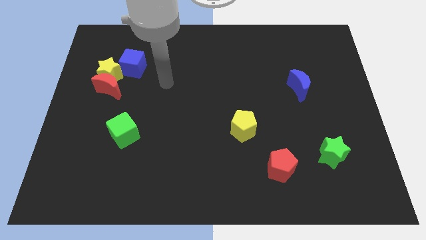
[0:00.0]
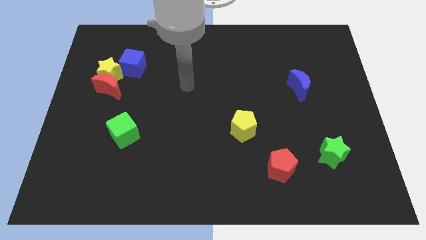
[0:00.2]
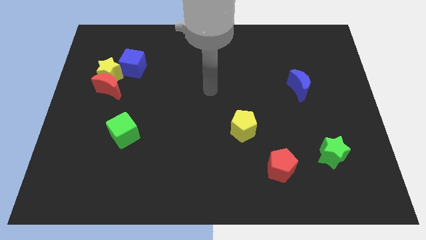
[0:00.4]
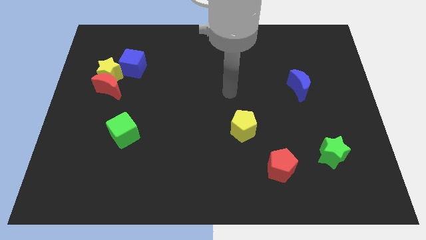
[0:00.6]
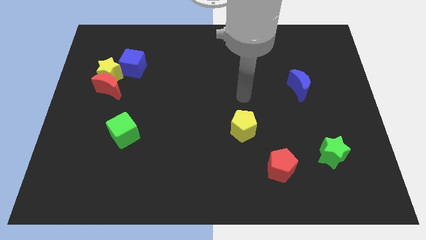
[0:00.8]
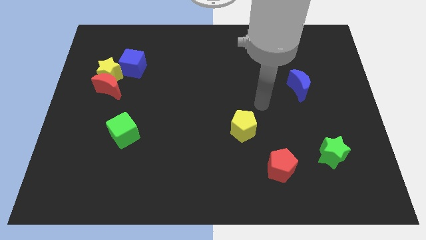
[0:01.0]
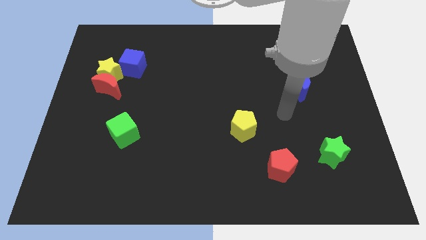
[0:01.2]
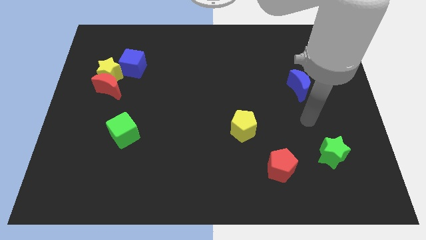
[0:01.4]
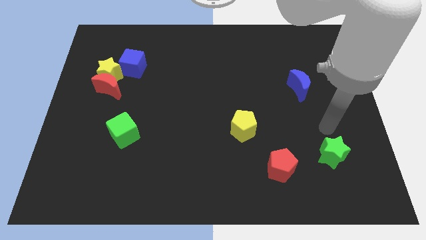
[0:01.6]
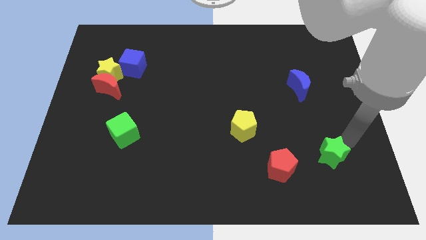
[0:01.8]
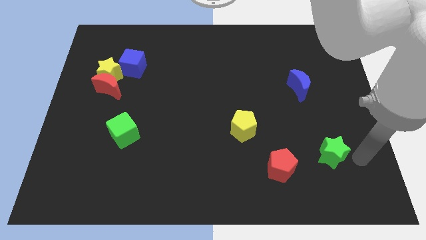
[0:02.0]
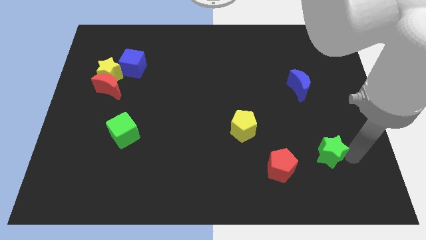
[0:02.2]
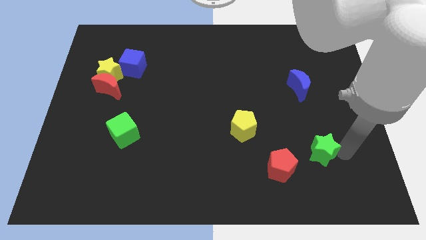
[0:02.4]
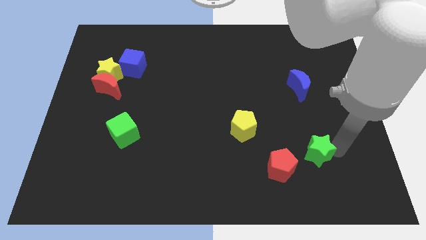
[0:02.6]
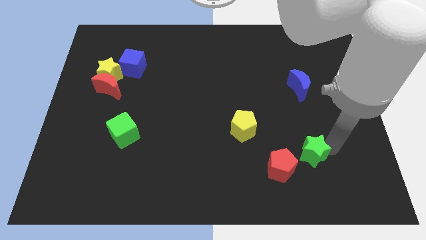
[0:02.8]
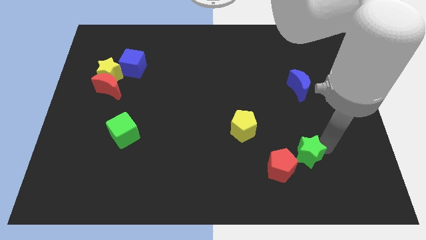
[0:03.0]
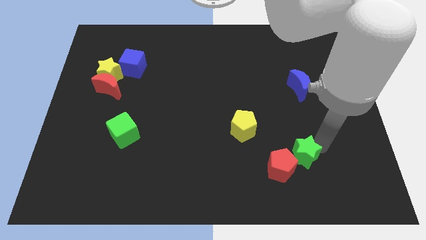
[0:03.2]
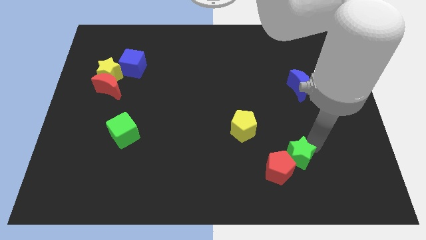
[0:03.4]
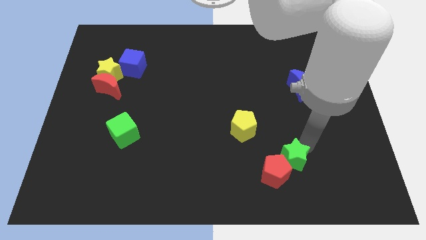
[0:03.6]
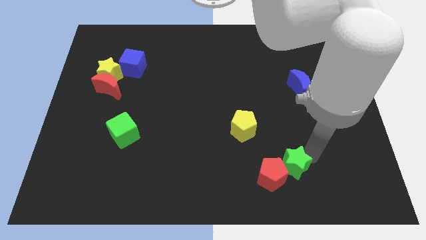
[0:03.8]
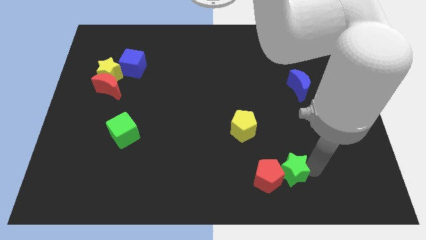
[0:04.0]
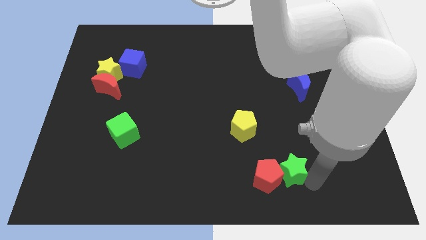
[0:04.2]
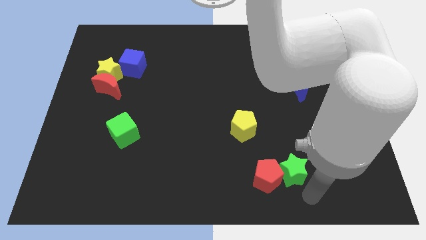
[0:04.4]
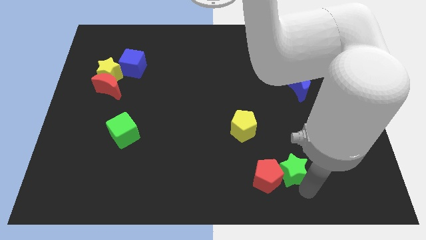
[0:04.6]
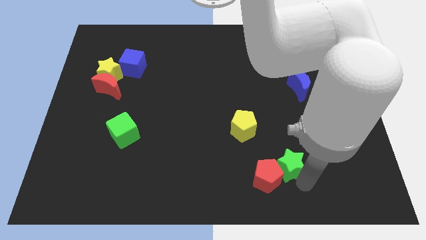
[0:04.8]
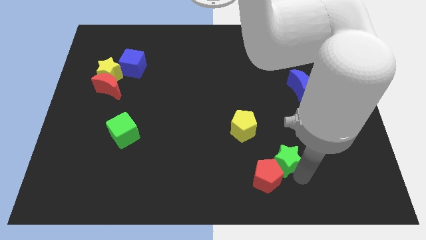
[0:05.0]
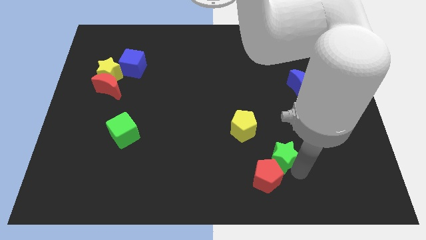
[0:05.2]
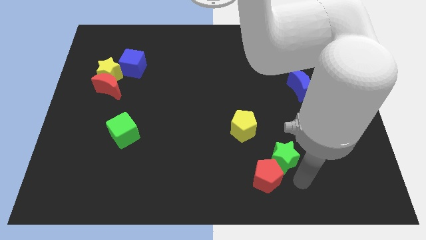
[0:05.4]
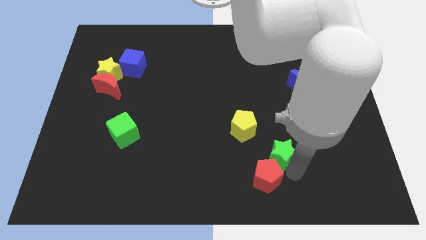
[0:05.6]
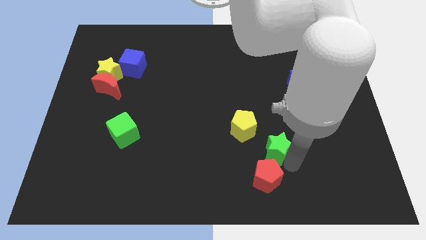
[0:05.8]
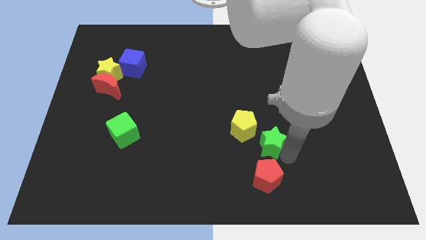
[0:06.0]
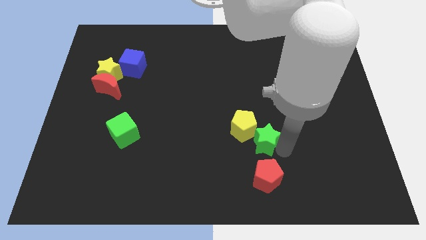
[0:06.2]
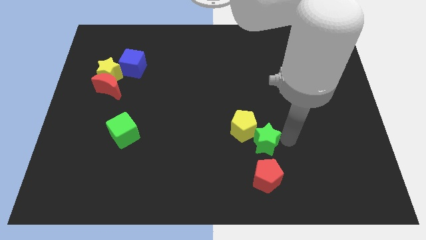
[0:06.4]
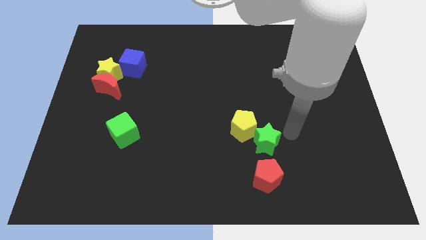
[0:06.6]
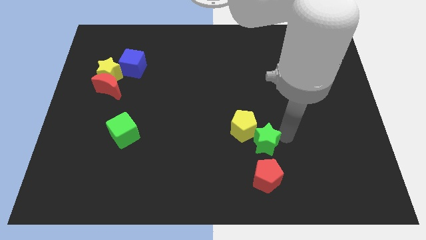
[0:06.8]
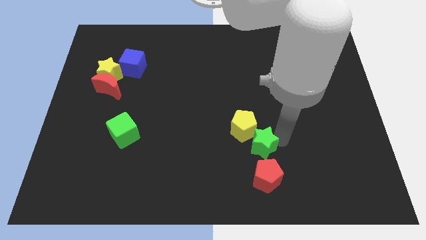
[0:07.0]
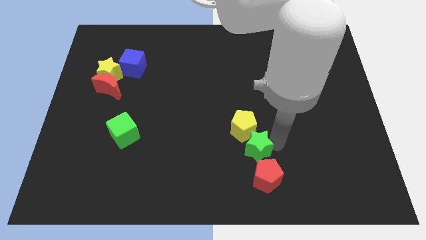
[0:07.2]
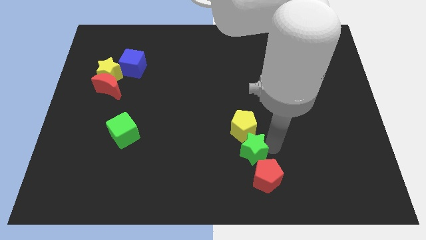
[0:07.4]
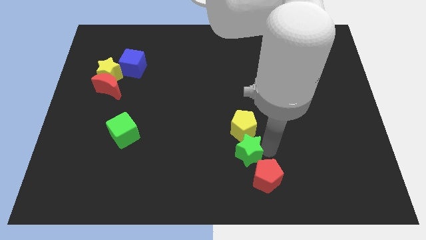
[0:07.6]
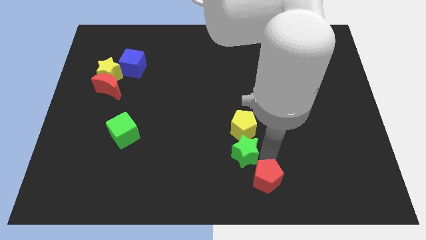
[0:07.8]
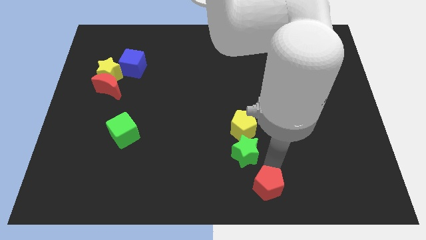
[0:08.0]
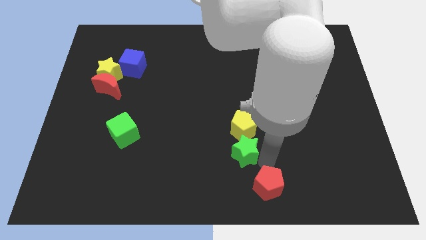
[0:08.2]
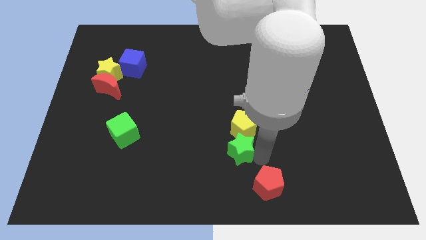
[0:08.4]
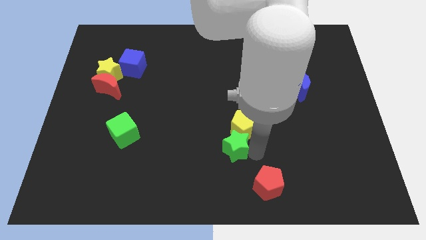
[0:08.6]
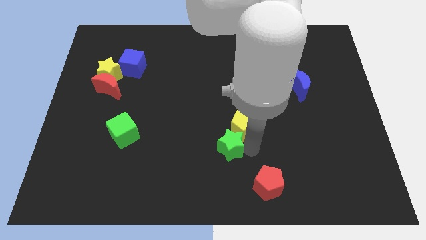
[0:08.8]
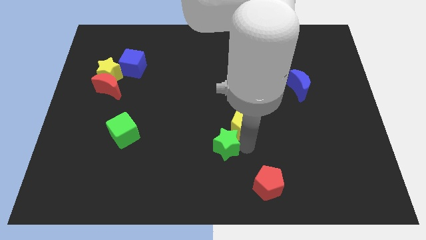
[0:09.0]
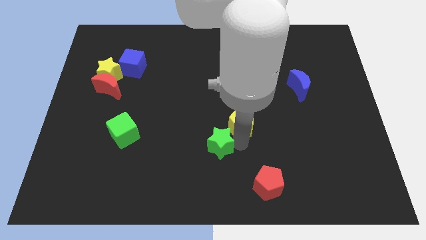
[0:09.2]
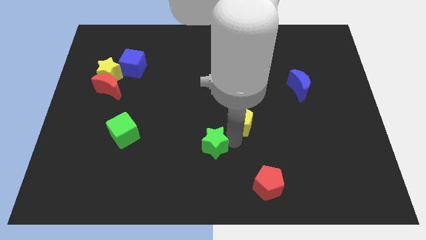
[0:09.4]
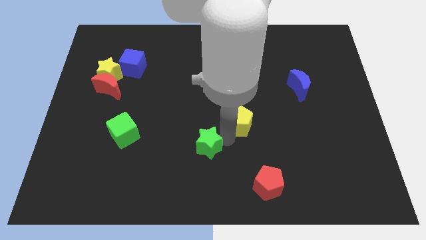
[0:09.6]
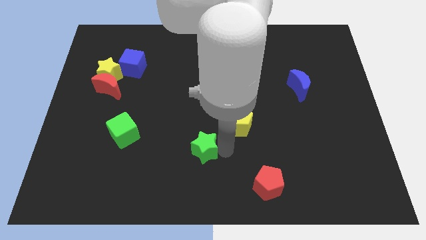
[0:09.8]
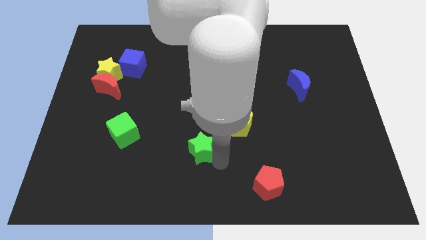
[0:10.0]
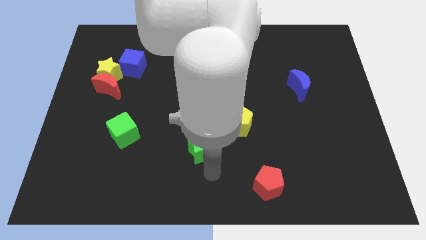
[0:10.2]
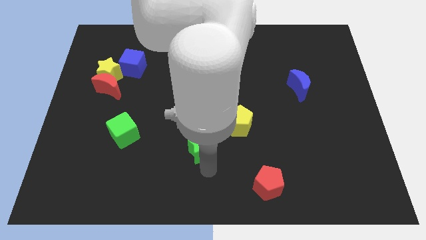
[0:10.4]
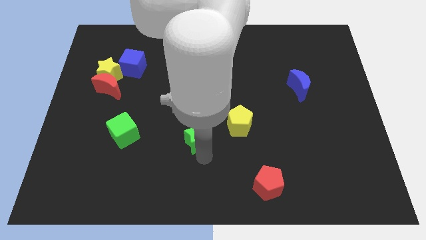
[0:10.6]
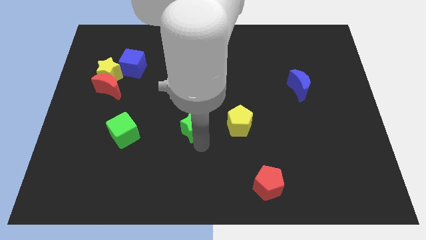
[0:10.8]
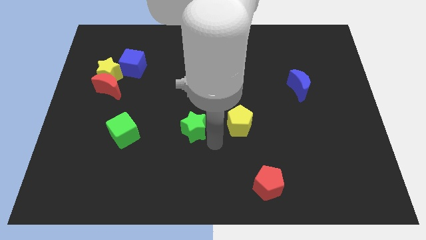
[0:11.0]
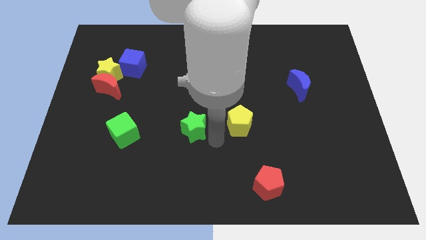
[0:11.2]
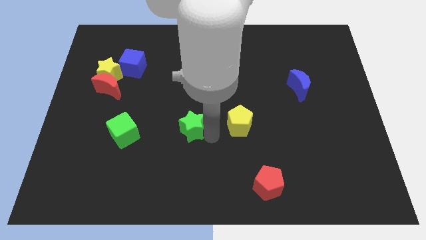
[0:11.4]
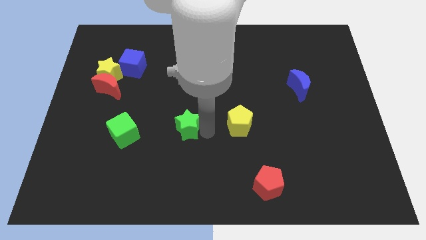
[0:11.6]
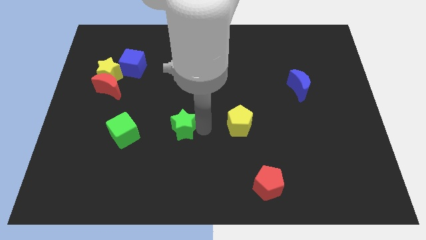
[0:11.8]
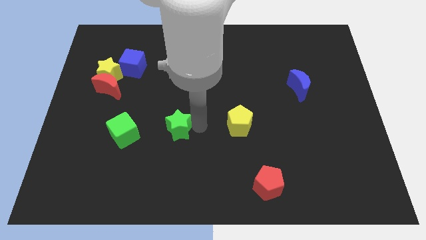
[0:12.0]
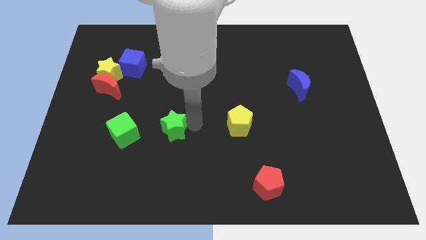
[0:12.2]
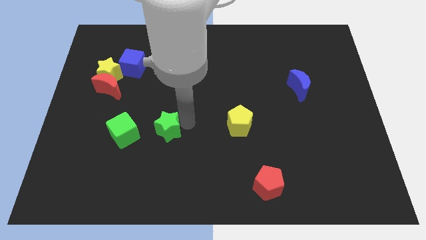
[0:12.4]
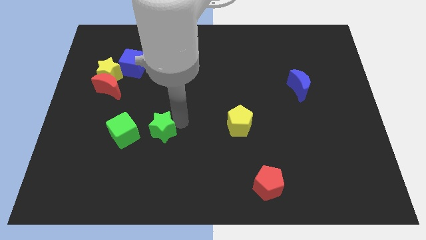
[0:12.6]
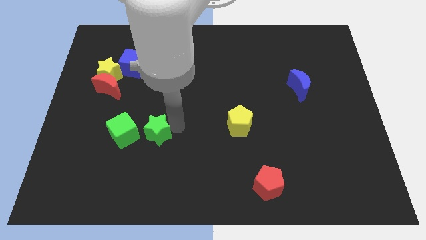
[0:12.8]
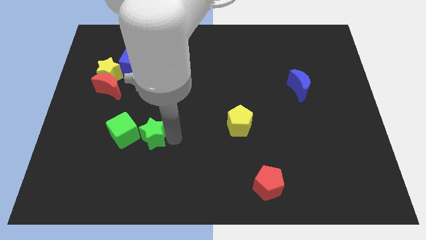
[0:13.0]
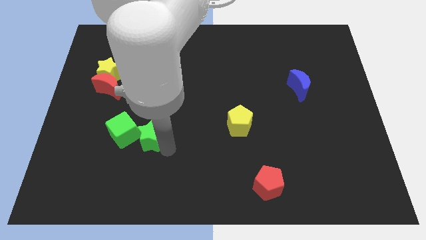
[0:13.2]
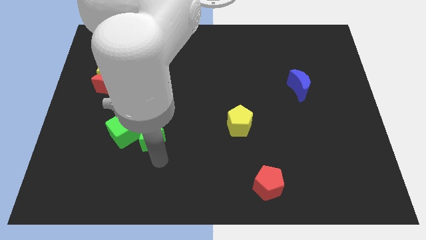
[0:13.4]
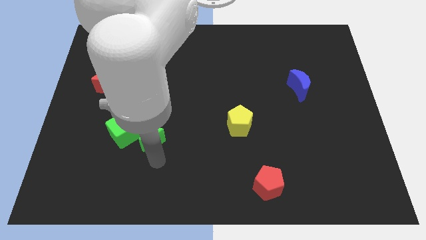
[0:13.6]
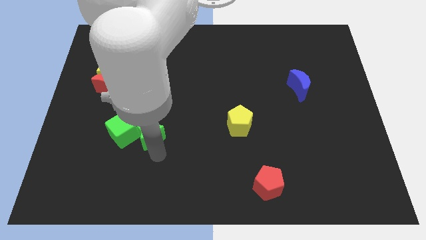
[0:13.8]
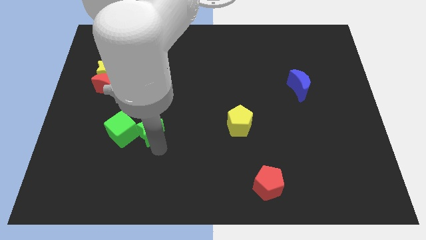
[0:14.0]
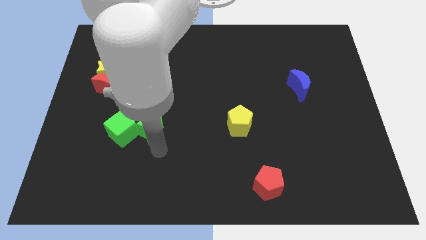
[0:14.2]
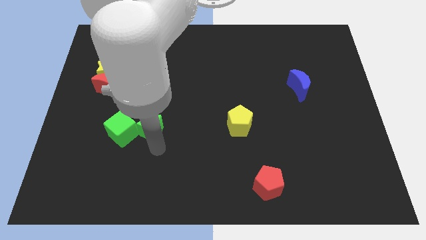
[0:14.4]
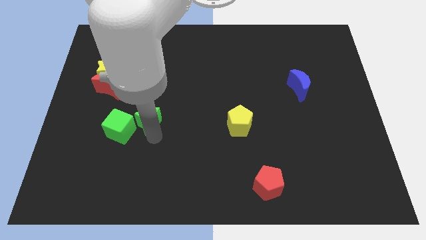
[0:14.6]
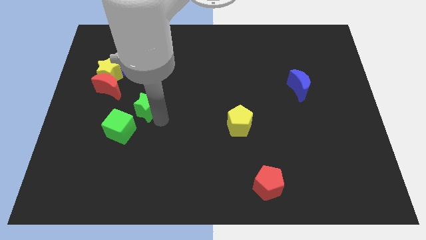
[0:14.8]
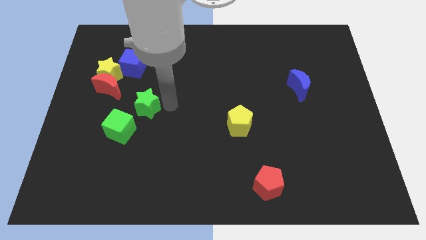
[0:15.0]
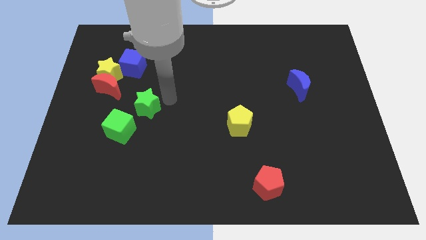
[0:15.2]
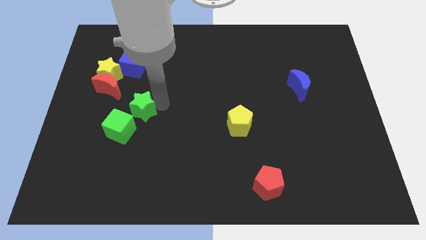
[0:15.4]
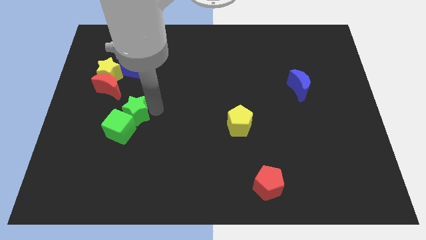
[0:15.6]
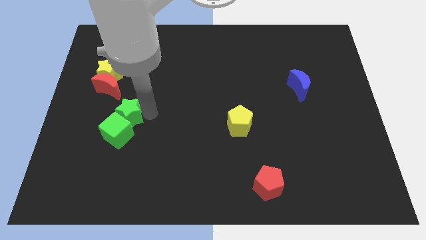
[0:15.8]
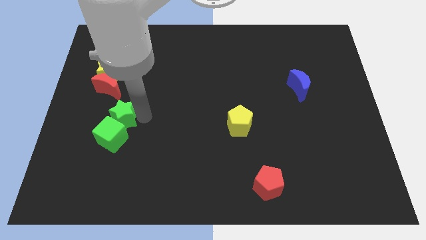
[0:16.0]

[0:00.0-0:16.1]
push the green star below the red moon
